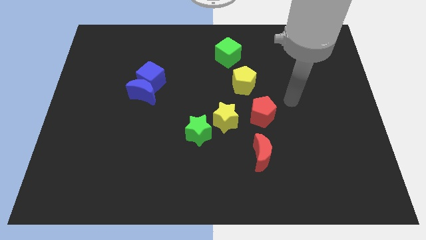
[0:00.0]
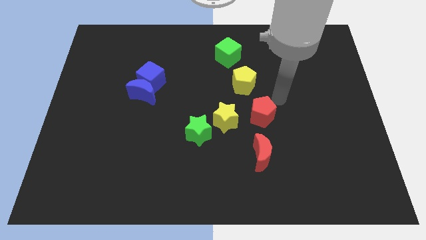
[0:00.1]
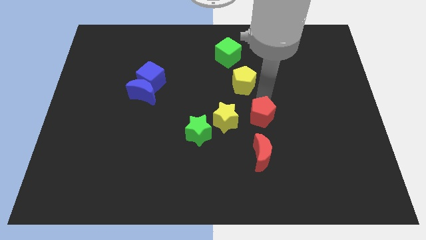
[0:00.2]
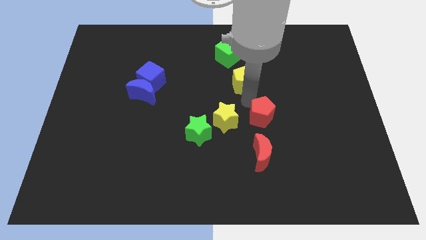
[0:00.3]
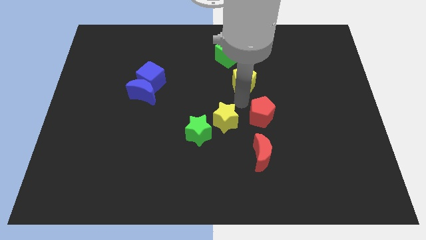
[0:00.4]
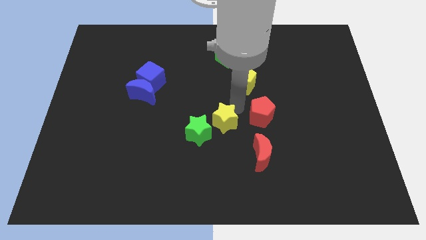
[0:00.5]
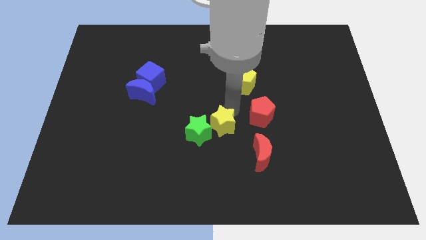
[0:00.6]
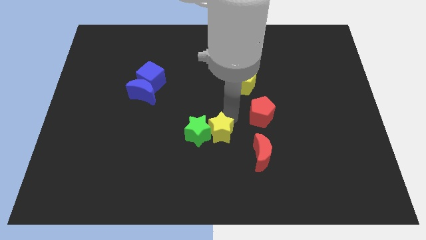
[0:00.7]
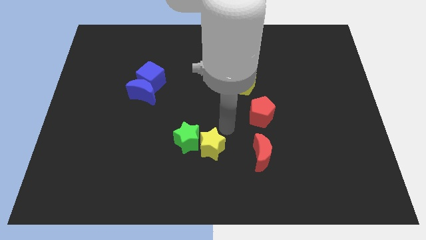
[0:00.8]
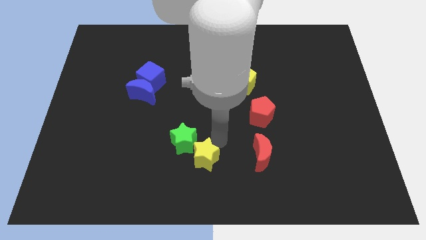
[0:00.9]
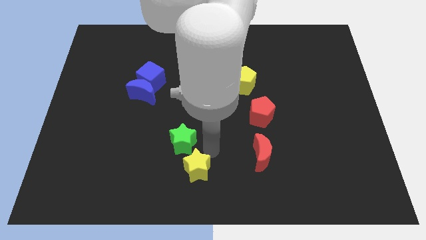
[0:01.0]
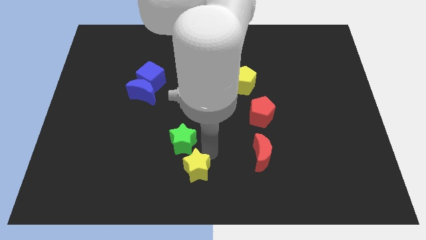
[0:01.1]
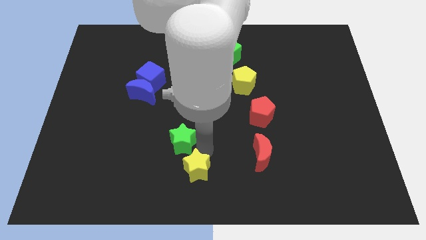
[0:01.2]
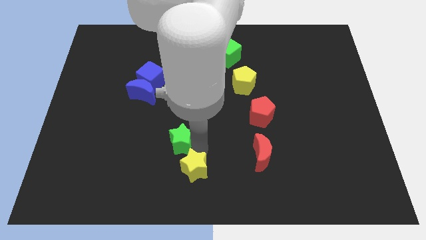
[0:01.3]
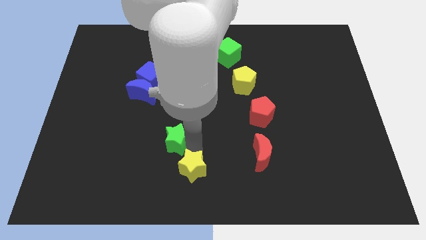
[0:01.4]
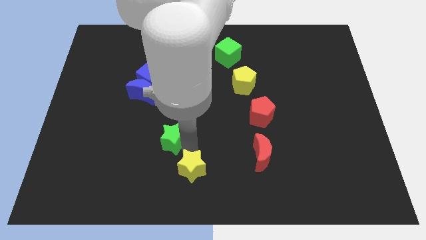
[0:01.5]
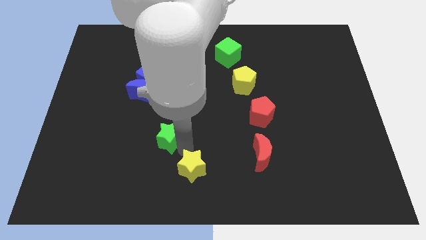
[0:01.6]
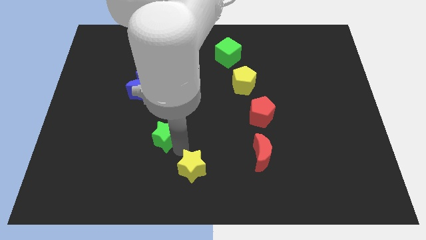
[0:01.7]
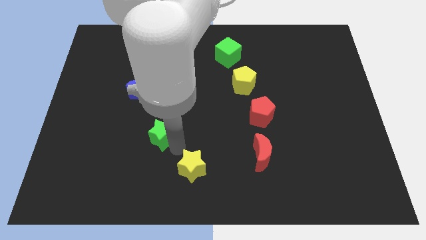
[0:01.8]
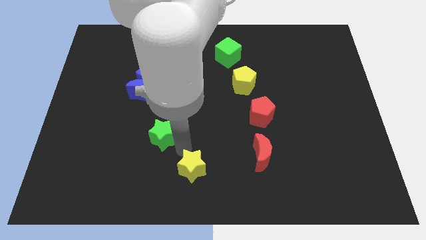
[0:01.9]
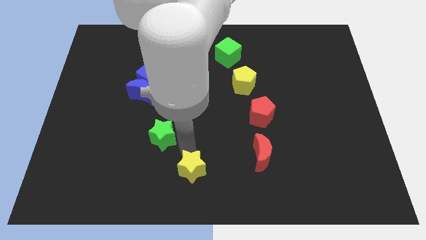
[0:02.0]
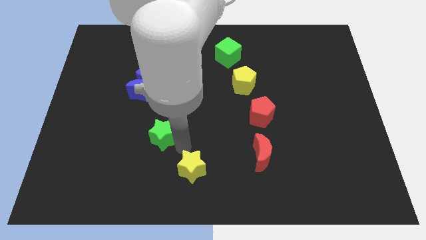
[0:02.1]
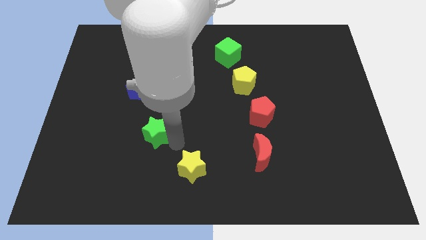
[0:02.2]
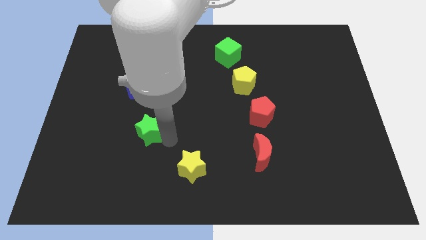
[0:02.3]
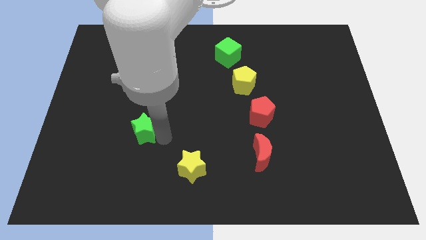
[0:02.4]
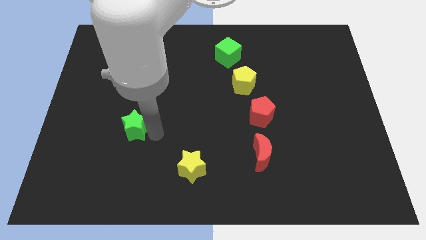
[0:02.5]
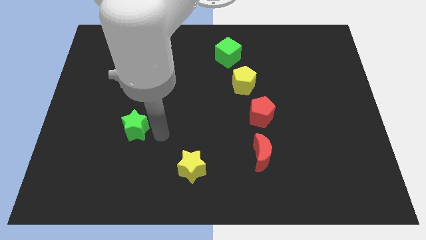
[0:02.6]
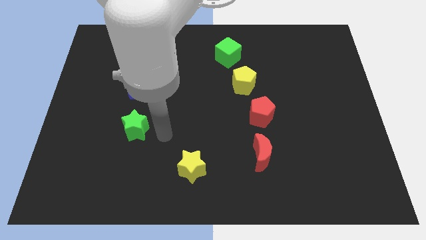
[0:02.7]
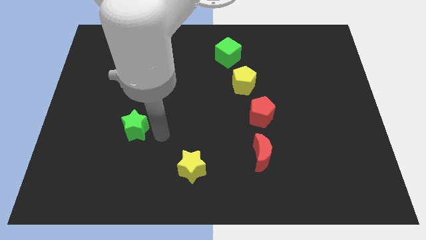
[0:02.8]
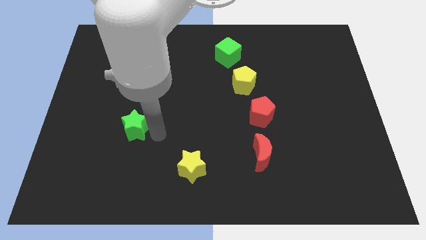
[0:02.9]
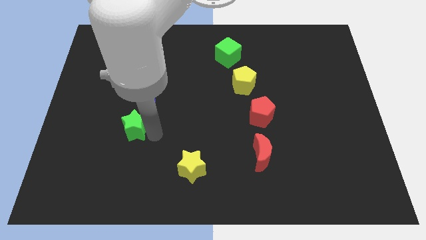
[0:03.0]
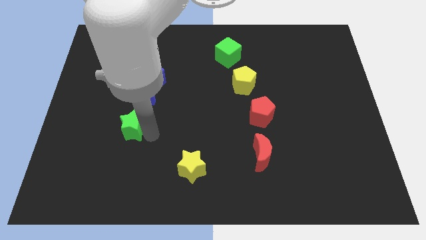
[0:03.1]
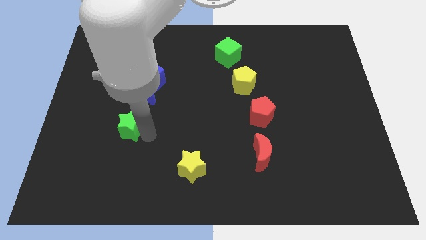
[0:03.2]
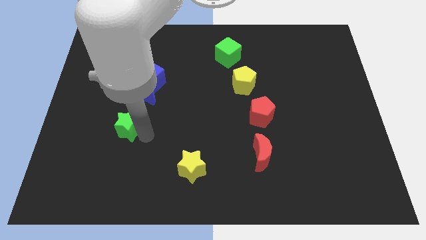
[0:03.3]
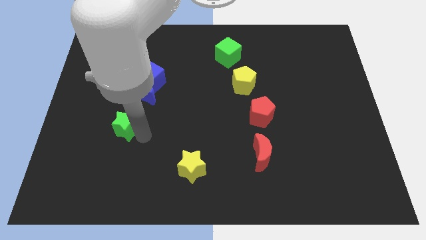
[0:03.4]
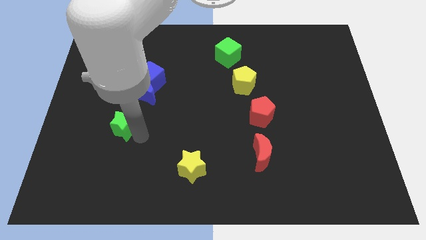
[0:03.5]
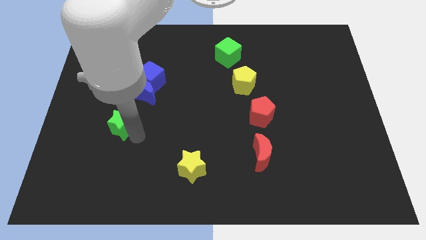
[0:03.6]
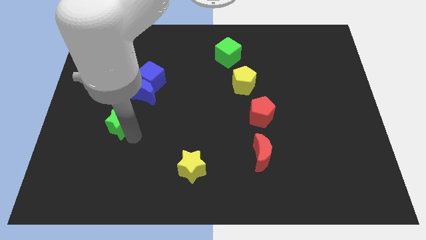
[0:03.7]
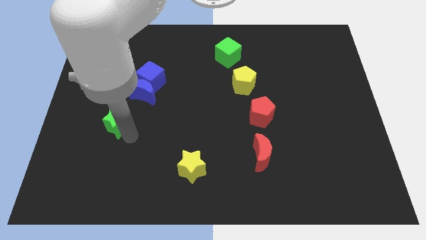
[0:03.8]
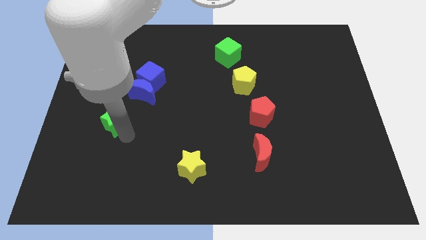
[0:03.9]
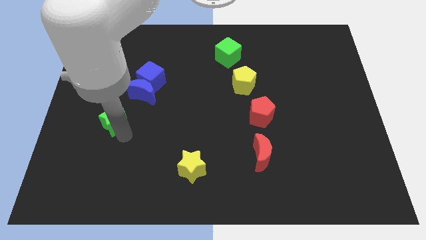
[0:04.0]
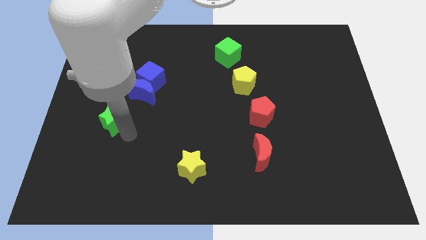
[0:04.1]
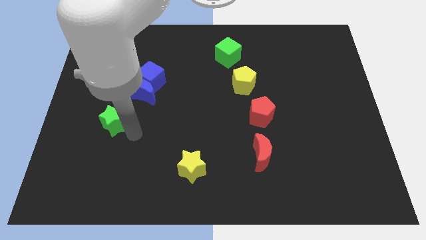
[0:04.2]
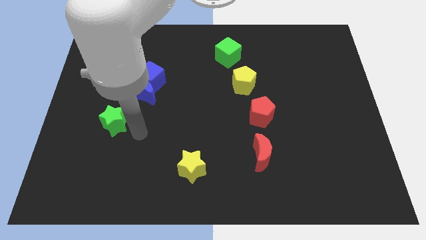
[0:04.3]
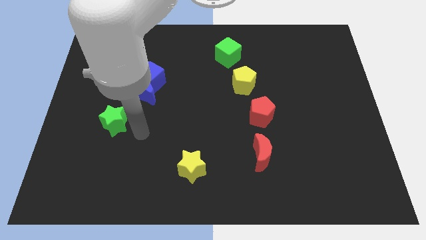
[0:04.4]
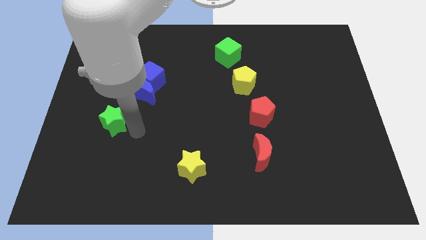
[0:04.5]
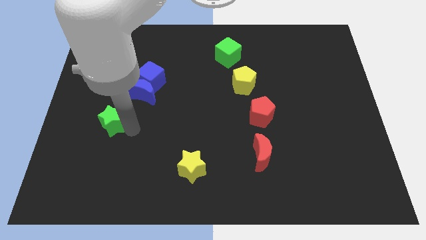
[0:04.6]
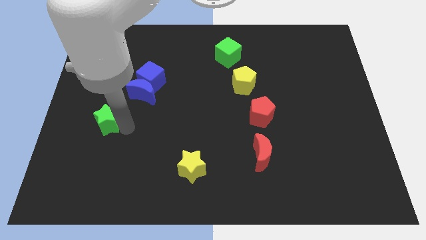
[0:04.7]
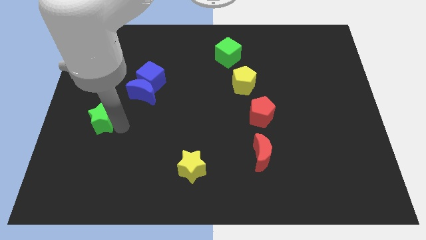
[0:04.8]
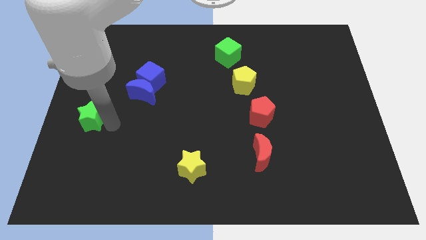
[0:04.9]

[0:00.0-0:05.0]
push the green star to the left side of the board

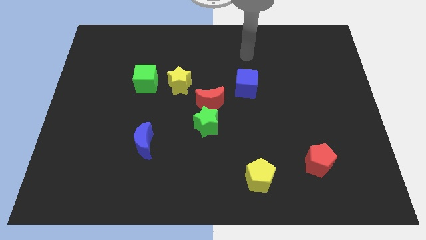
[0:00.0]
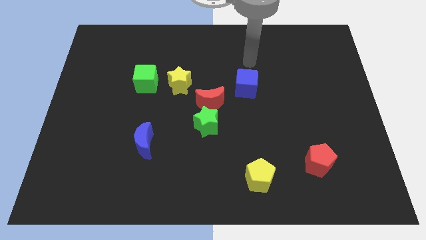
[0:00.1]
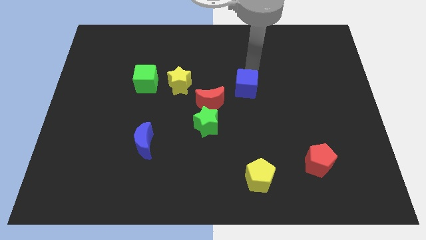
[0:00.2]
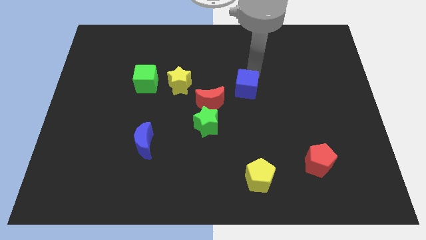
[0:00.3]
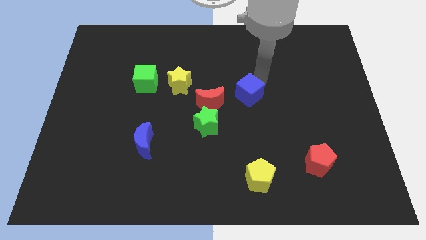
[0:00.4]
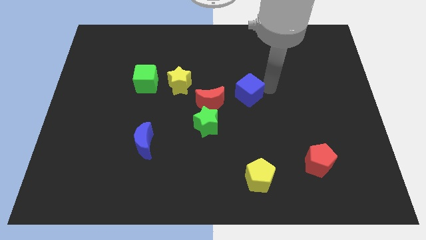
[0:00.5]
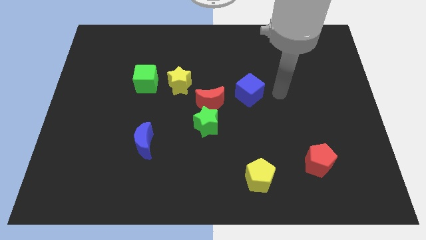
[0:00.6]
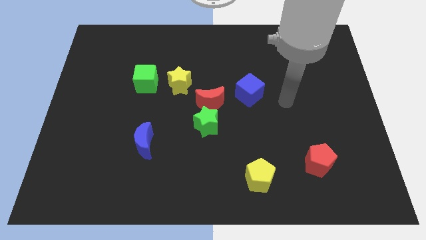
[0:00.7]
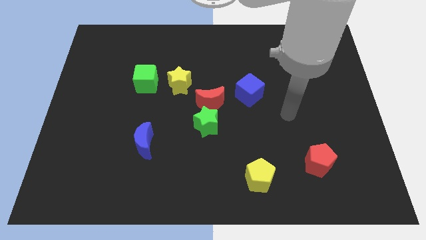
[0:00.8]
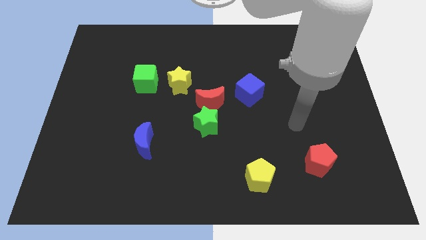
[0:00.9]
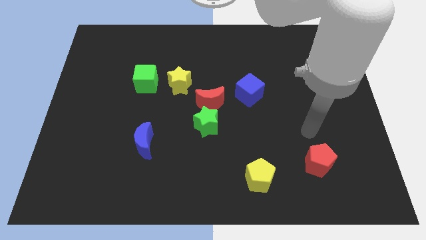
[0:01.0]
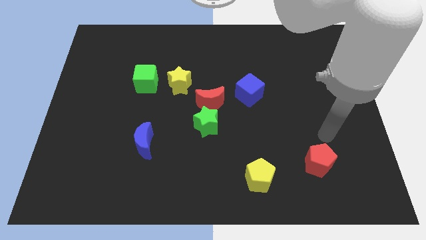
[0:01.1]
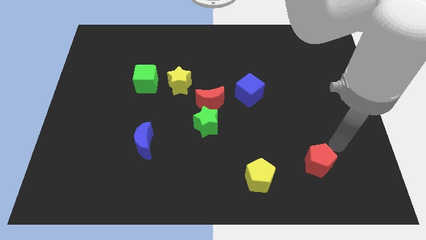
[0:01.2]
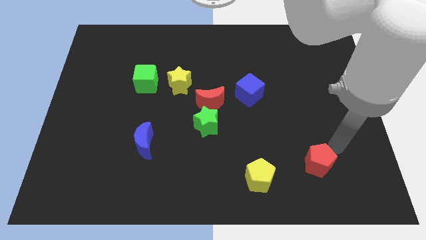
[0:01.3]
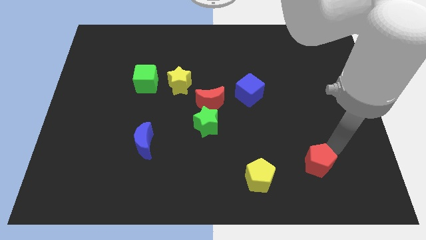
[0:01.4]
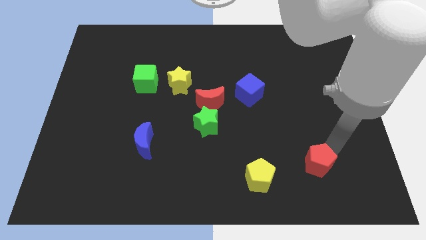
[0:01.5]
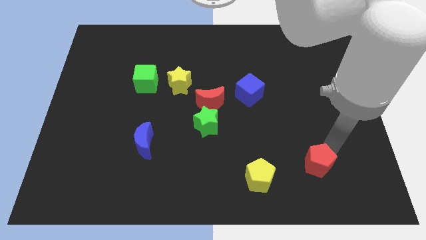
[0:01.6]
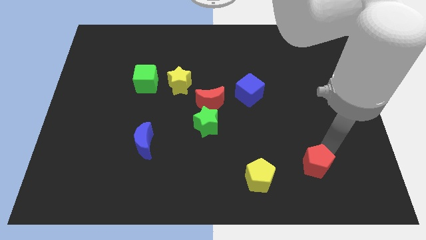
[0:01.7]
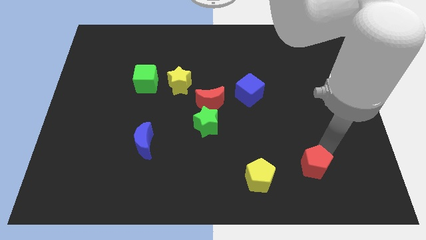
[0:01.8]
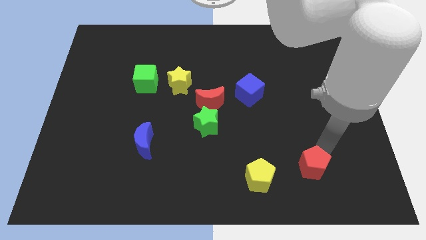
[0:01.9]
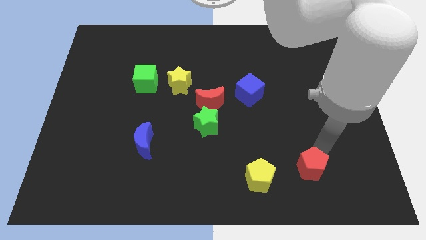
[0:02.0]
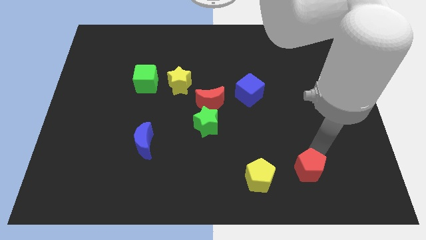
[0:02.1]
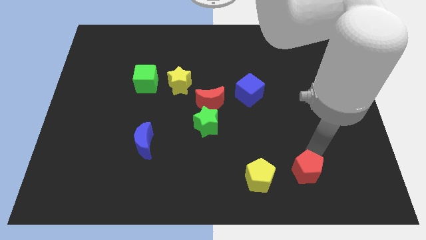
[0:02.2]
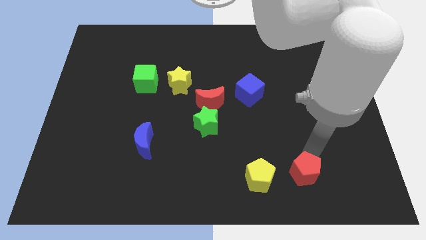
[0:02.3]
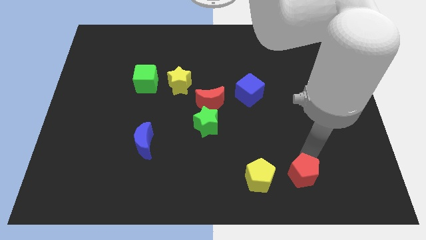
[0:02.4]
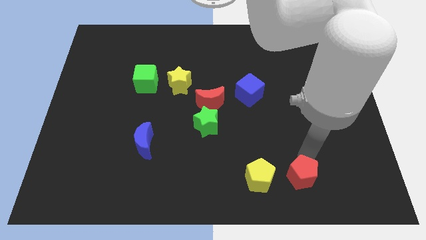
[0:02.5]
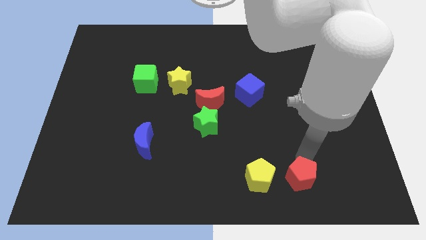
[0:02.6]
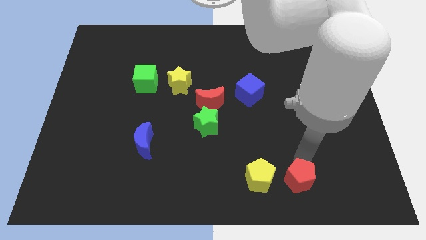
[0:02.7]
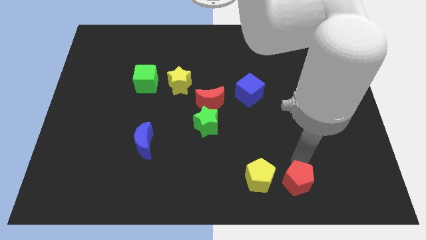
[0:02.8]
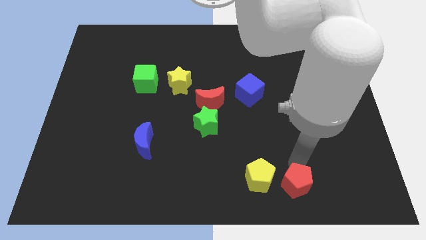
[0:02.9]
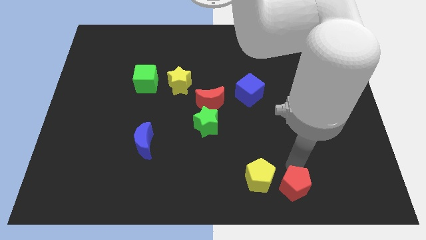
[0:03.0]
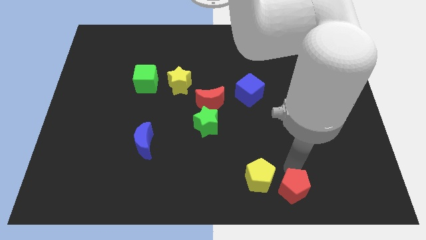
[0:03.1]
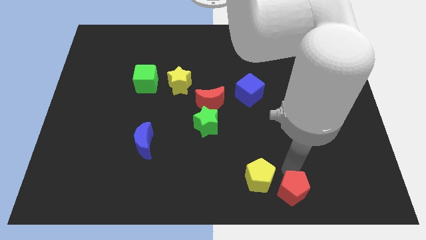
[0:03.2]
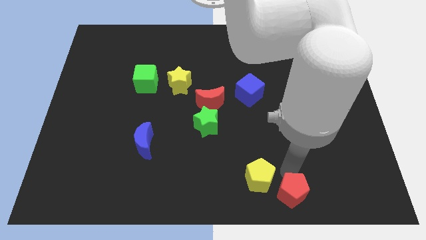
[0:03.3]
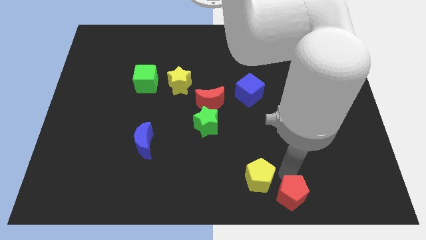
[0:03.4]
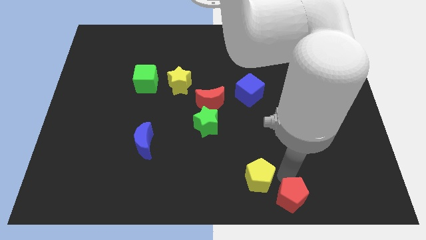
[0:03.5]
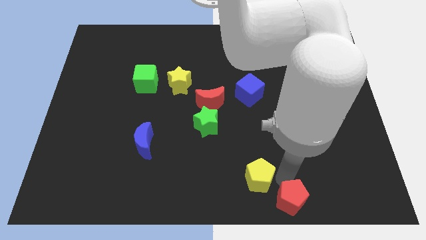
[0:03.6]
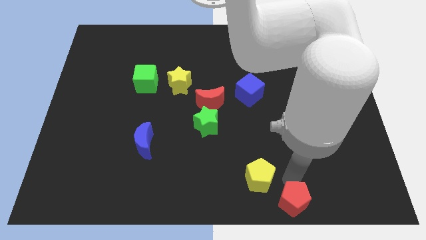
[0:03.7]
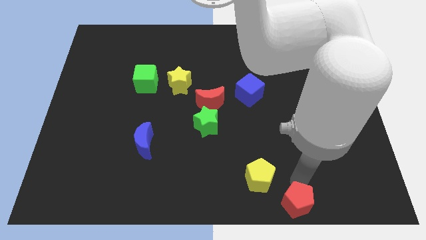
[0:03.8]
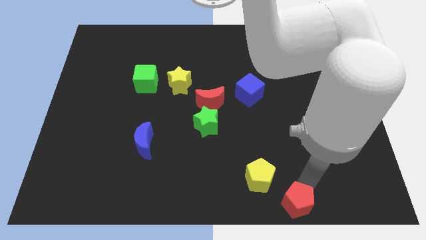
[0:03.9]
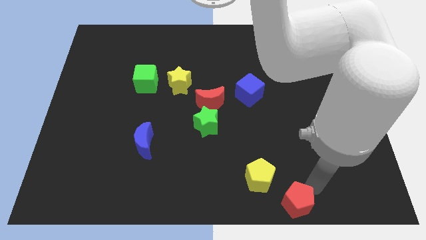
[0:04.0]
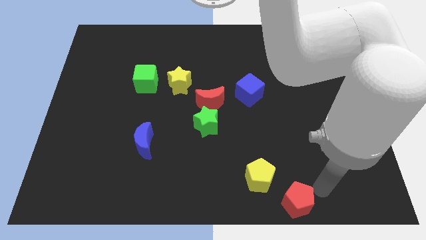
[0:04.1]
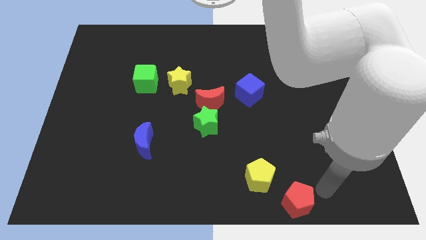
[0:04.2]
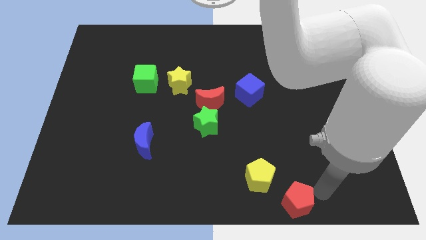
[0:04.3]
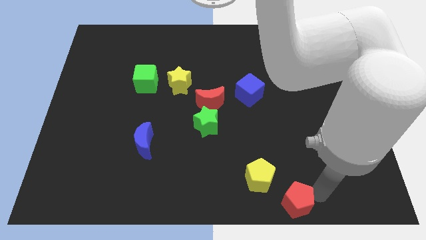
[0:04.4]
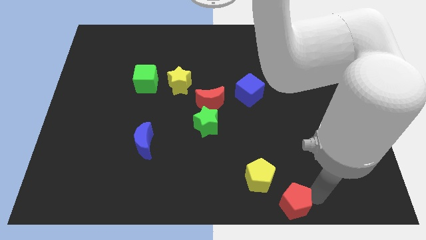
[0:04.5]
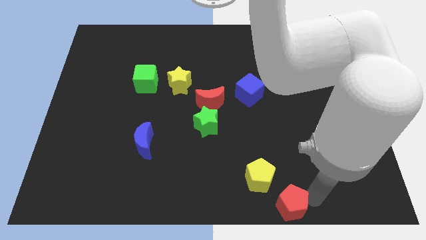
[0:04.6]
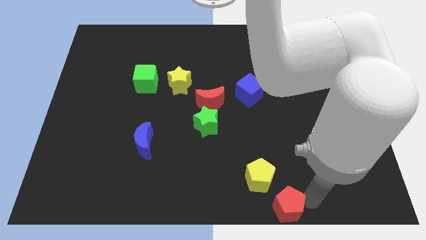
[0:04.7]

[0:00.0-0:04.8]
push the red pentagon to the bottom
